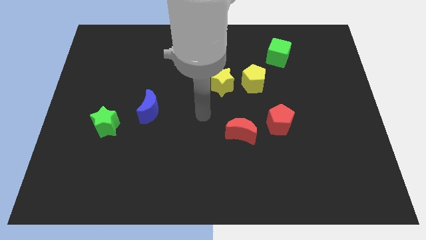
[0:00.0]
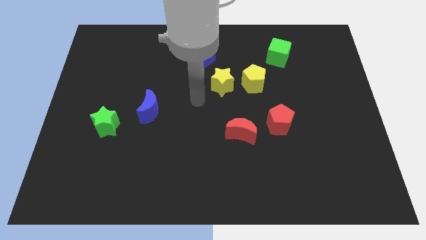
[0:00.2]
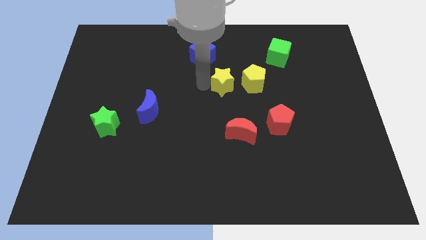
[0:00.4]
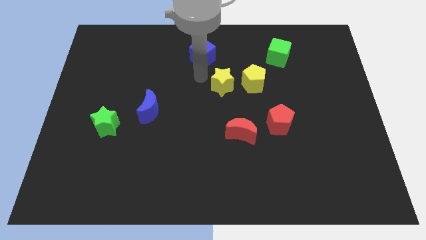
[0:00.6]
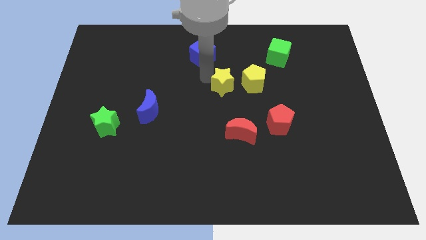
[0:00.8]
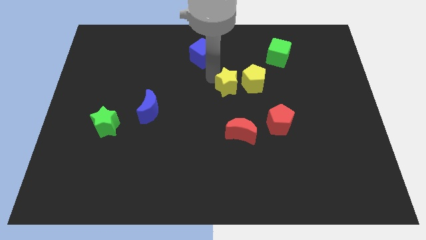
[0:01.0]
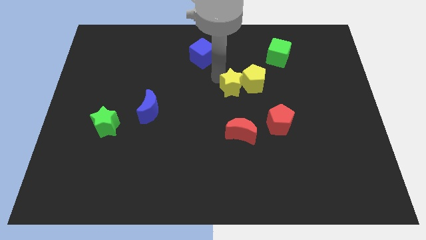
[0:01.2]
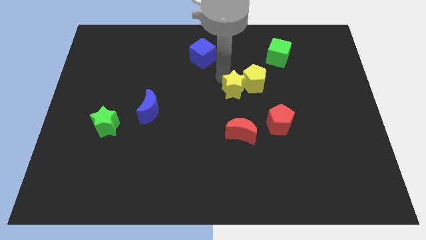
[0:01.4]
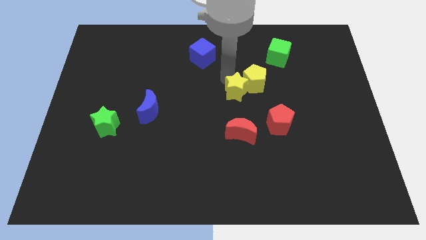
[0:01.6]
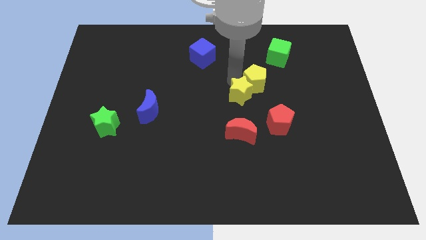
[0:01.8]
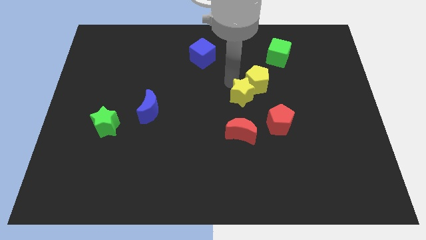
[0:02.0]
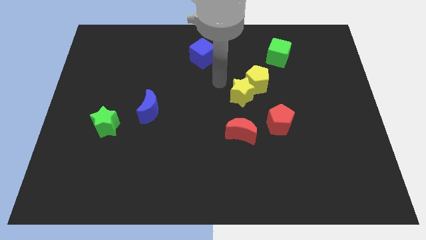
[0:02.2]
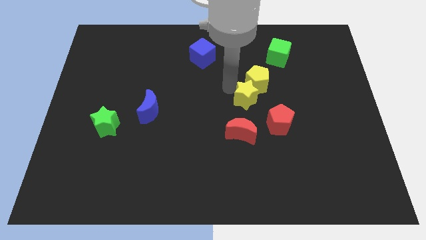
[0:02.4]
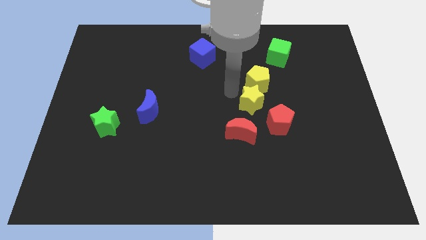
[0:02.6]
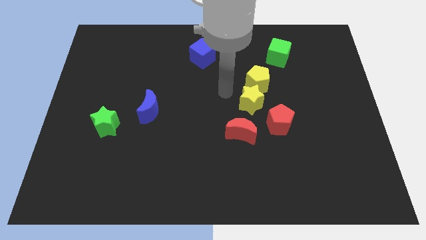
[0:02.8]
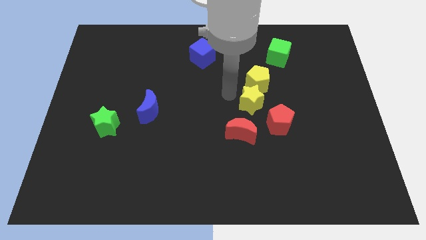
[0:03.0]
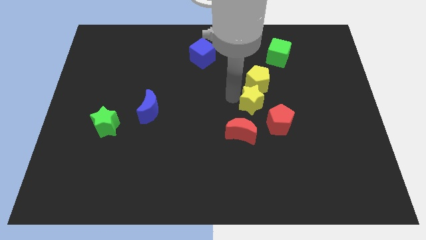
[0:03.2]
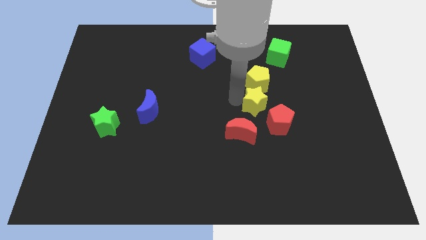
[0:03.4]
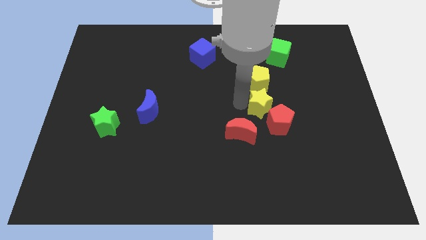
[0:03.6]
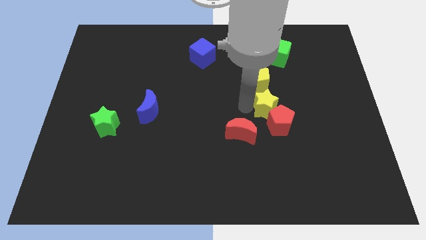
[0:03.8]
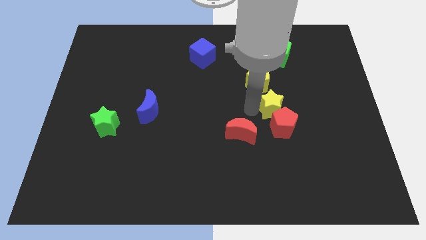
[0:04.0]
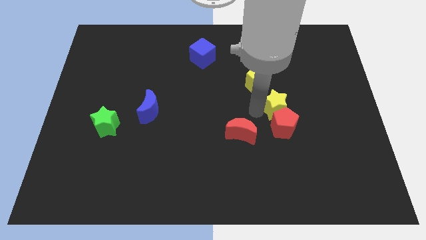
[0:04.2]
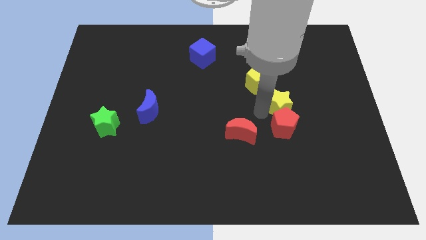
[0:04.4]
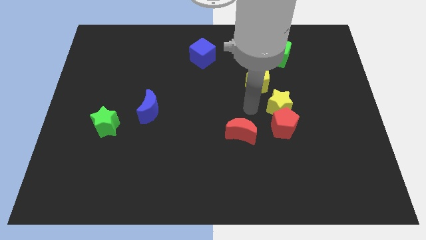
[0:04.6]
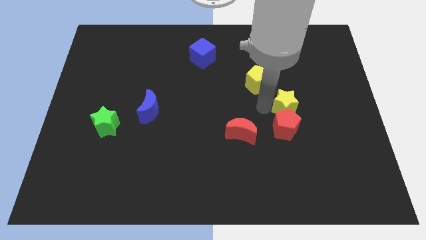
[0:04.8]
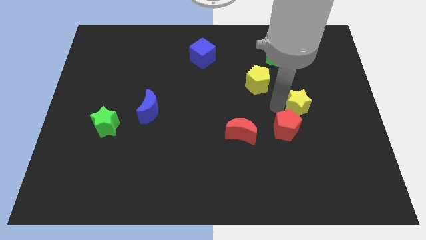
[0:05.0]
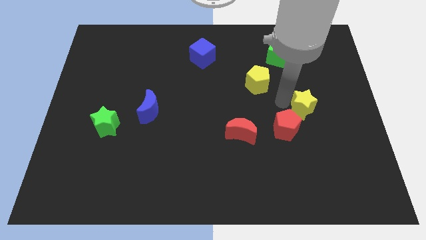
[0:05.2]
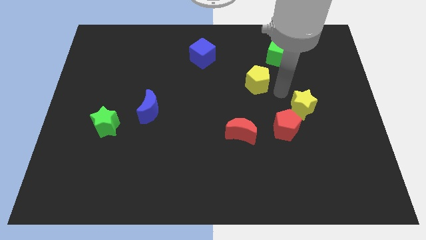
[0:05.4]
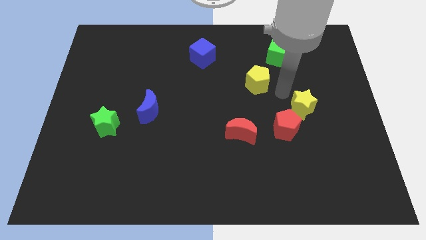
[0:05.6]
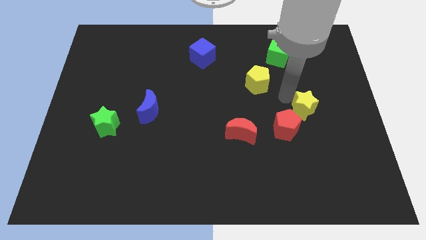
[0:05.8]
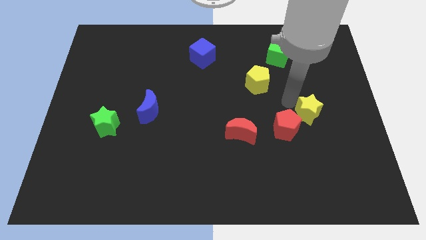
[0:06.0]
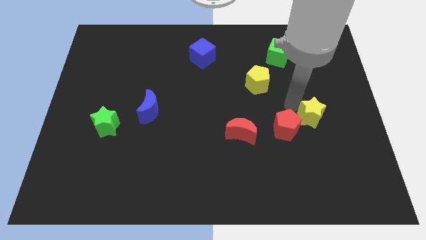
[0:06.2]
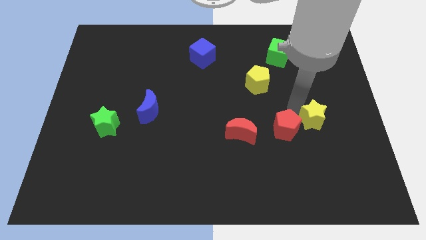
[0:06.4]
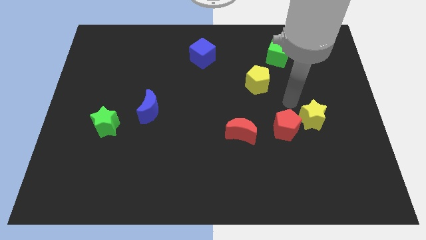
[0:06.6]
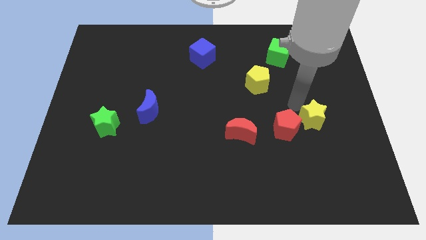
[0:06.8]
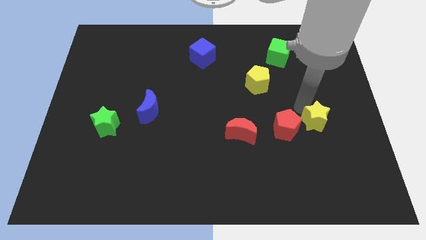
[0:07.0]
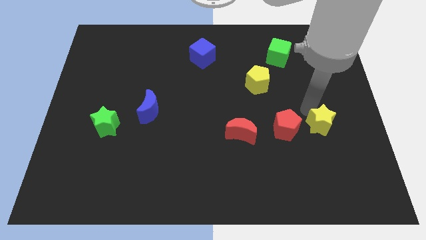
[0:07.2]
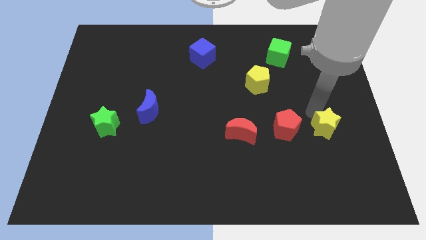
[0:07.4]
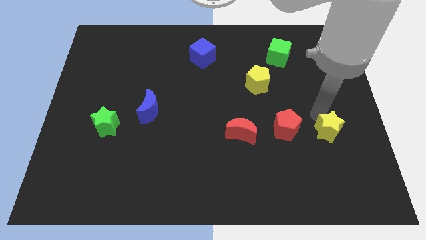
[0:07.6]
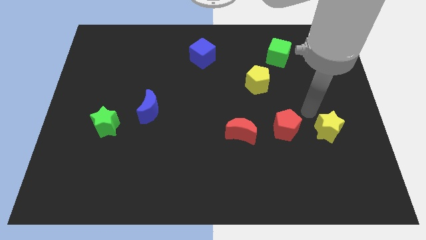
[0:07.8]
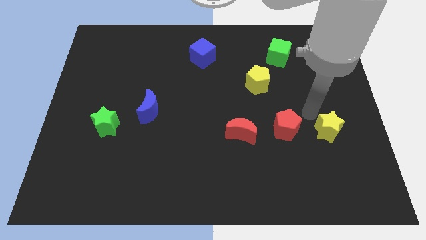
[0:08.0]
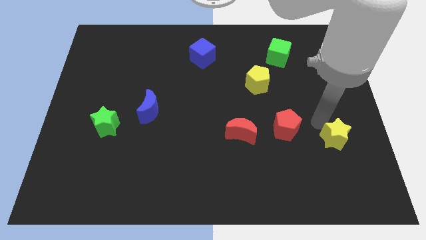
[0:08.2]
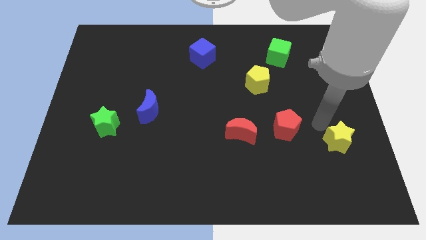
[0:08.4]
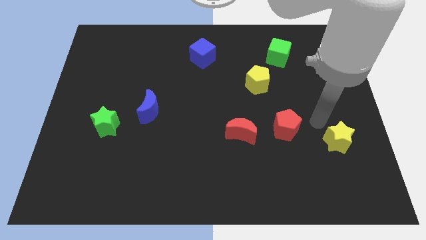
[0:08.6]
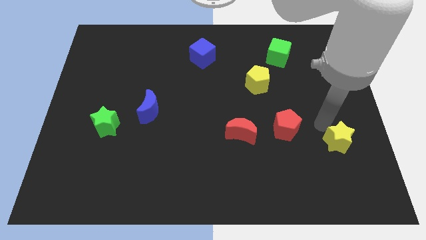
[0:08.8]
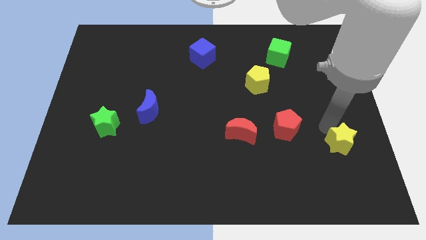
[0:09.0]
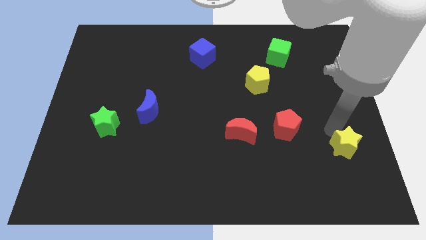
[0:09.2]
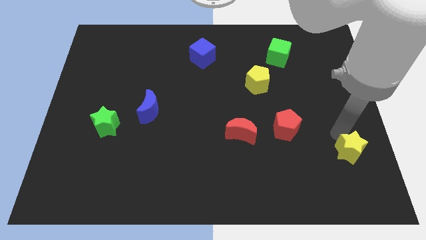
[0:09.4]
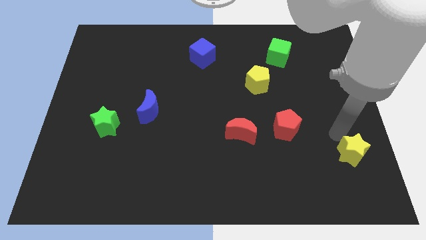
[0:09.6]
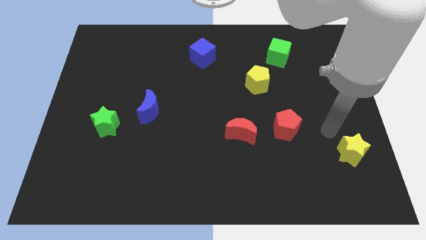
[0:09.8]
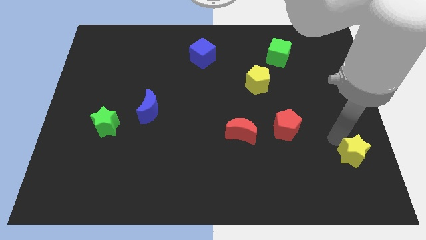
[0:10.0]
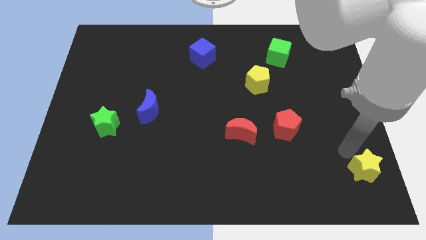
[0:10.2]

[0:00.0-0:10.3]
put the yellow star to the bottom right of the board

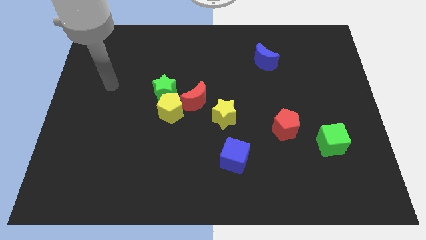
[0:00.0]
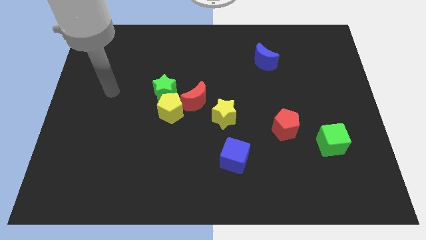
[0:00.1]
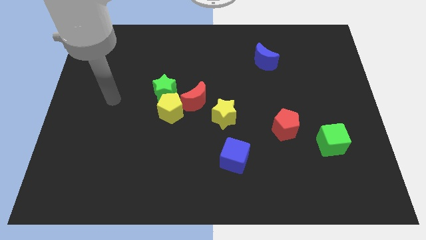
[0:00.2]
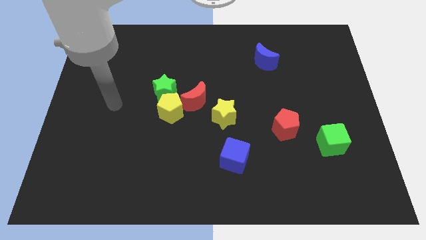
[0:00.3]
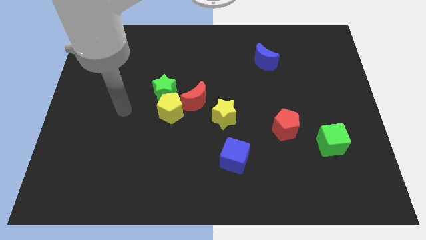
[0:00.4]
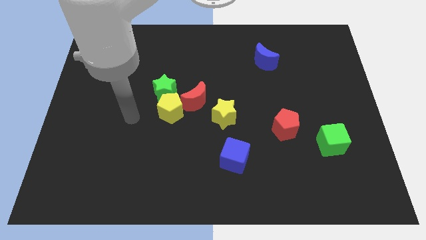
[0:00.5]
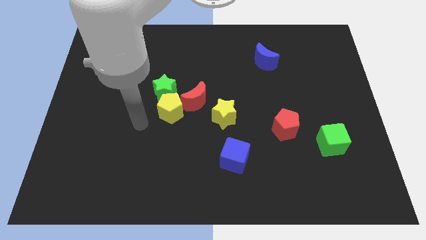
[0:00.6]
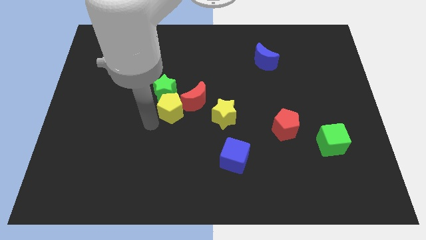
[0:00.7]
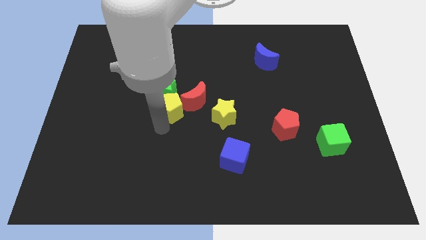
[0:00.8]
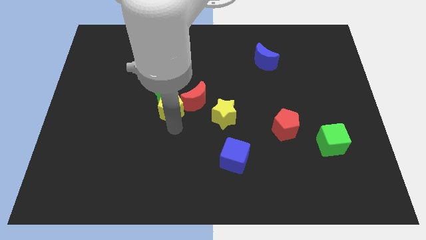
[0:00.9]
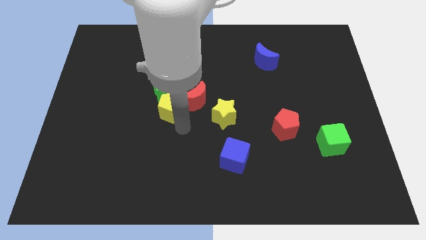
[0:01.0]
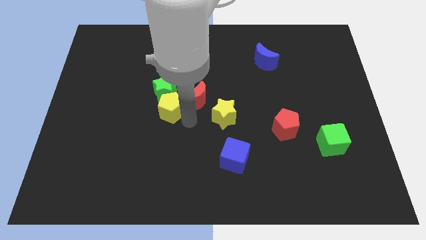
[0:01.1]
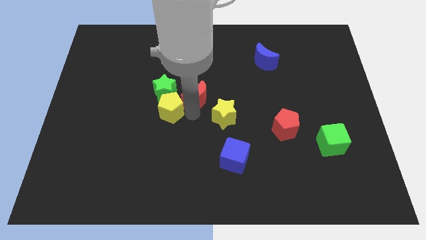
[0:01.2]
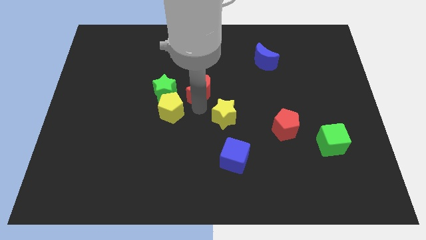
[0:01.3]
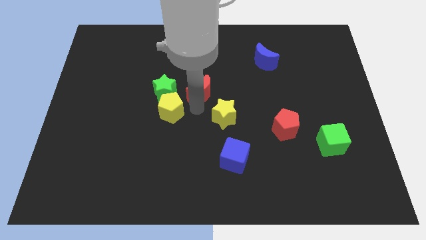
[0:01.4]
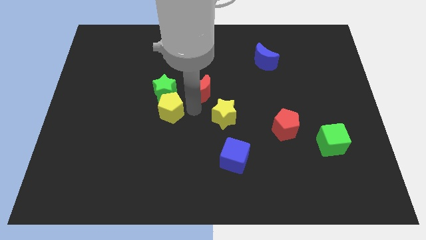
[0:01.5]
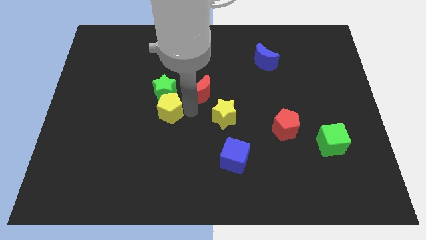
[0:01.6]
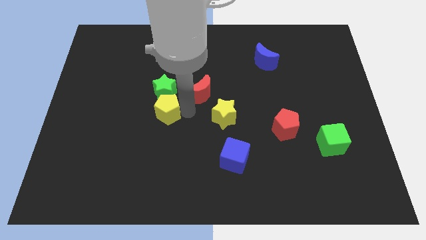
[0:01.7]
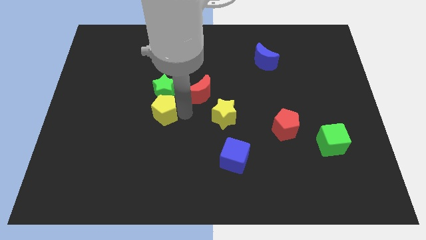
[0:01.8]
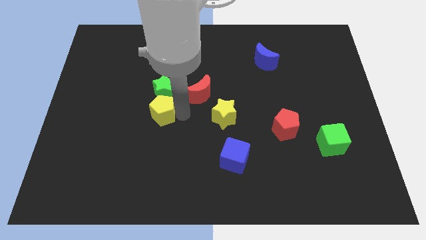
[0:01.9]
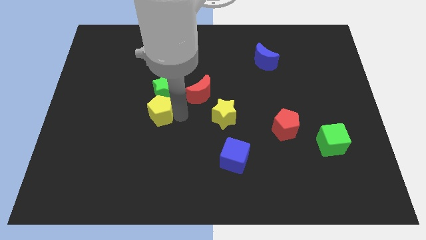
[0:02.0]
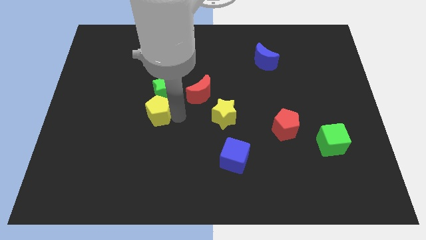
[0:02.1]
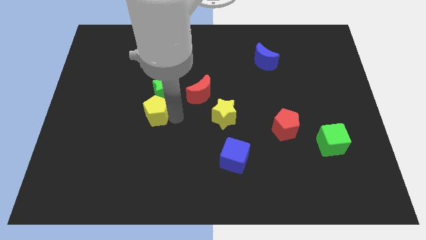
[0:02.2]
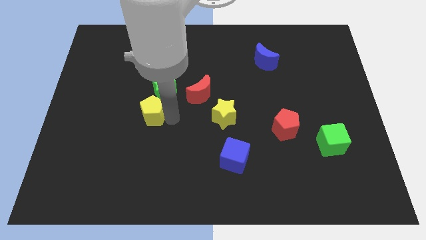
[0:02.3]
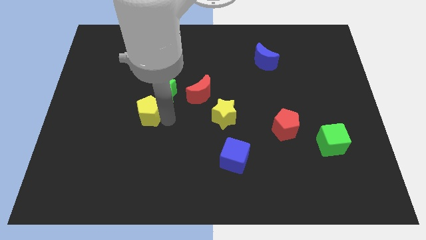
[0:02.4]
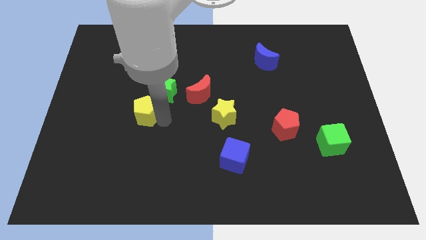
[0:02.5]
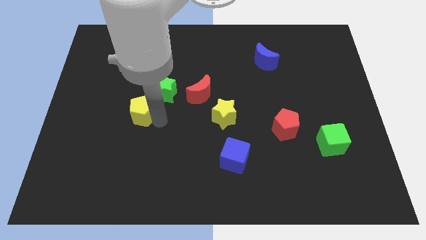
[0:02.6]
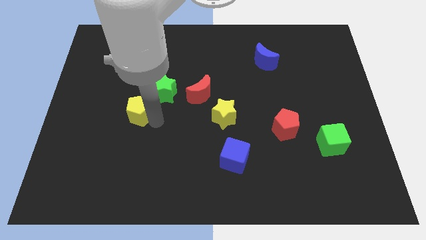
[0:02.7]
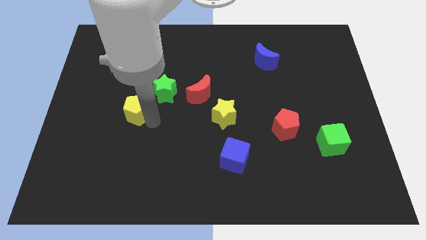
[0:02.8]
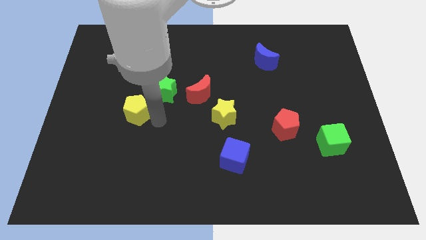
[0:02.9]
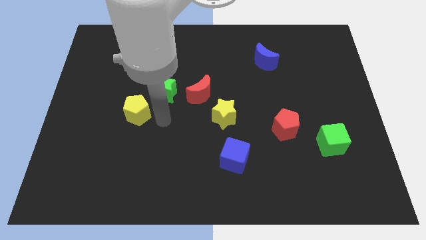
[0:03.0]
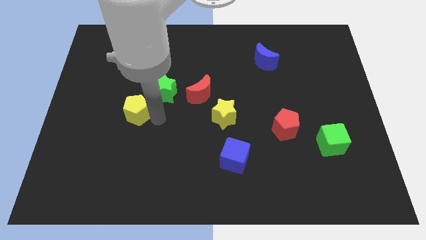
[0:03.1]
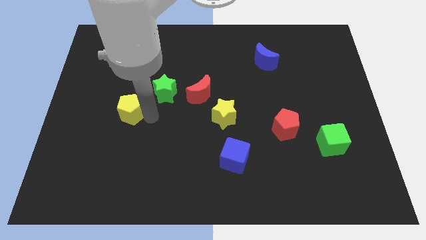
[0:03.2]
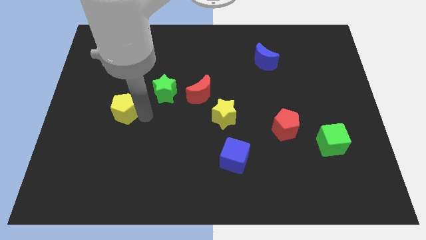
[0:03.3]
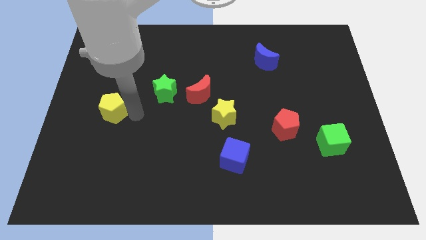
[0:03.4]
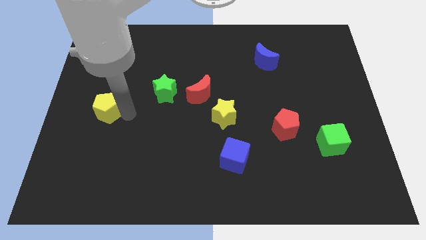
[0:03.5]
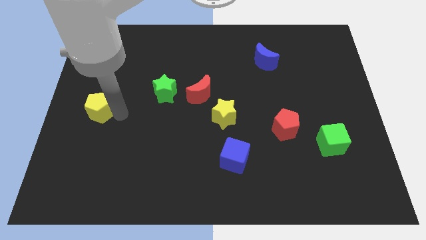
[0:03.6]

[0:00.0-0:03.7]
put the yellow pentagon to the center left
